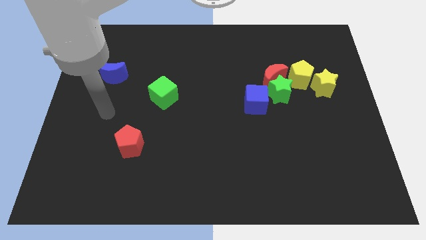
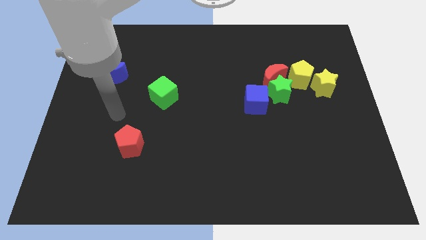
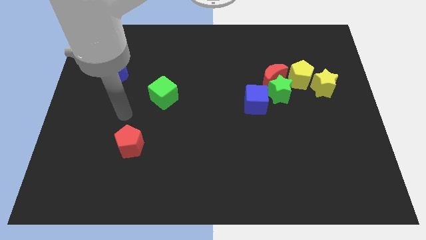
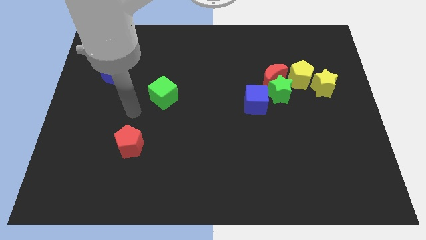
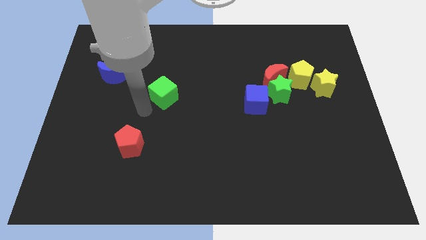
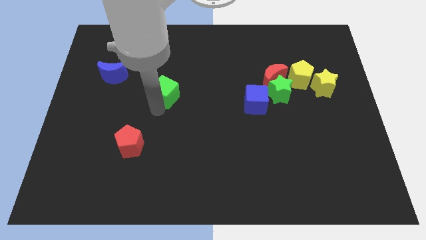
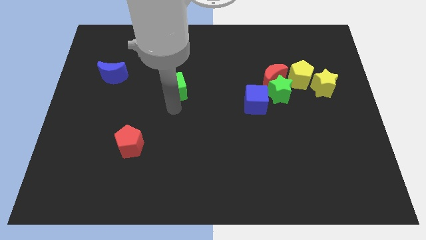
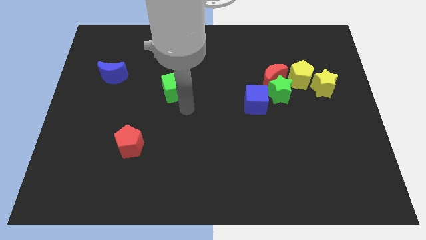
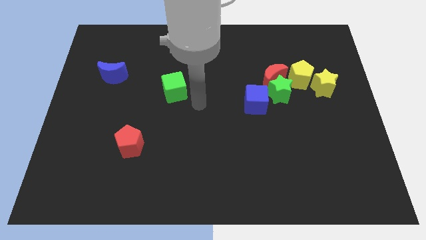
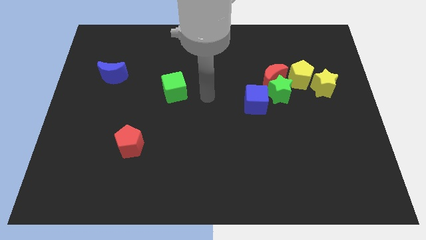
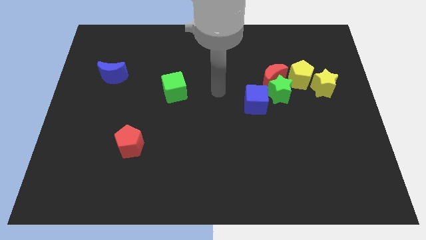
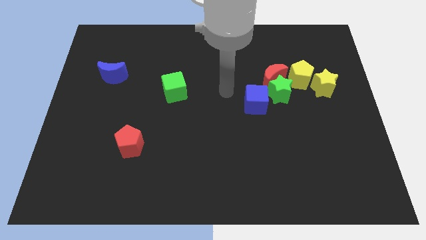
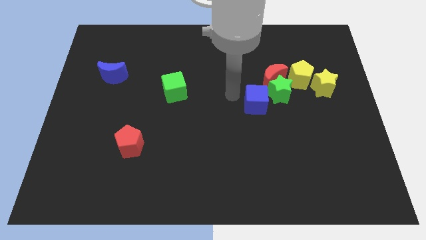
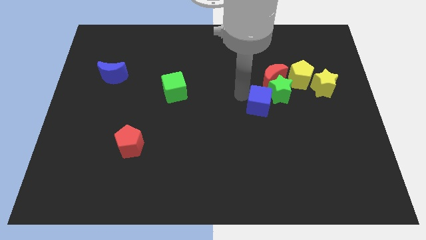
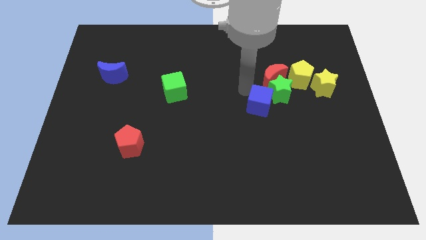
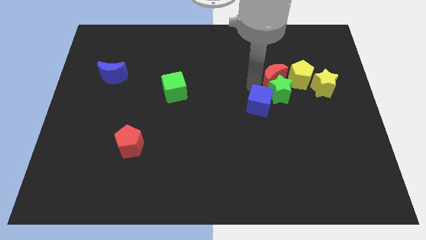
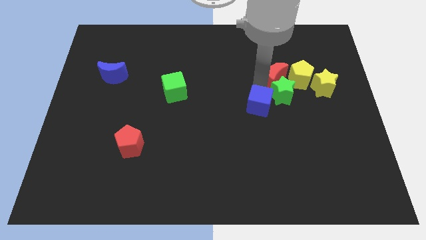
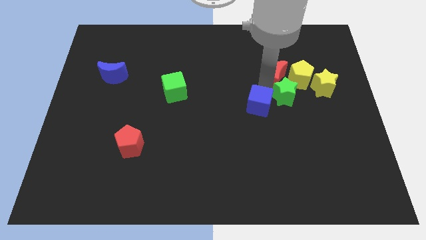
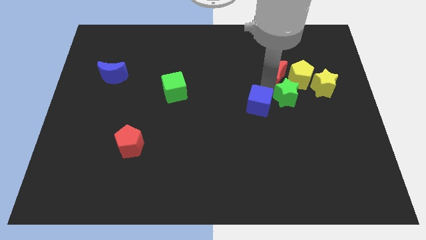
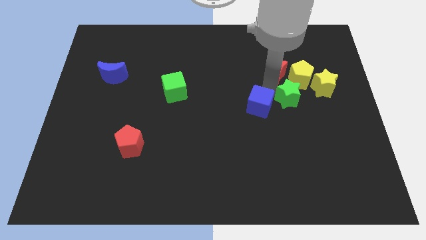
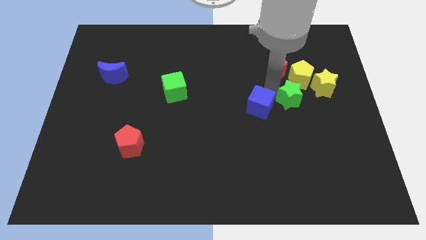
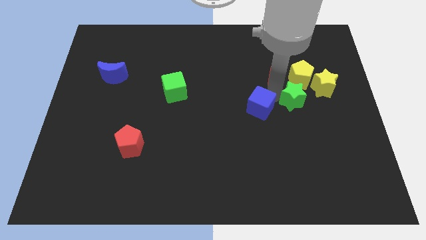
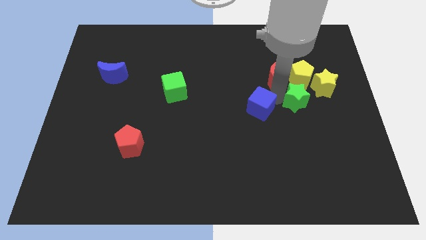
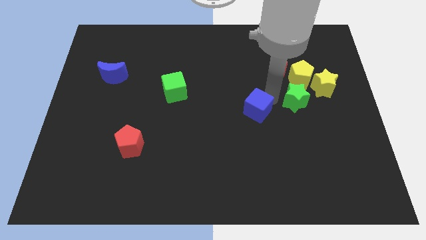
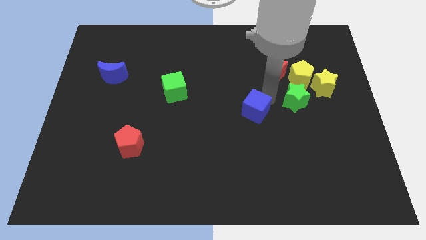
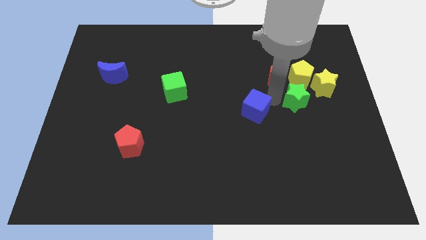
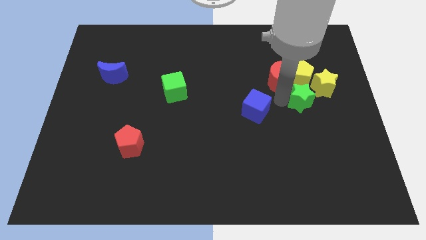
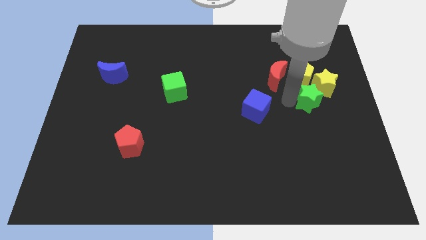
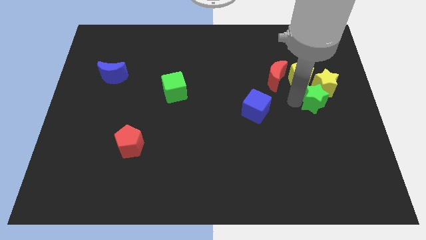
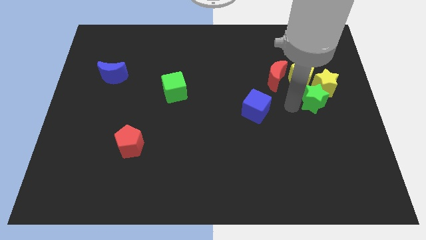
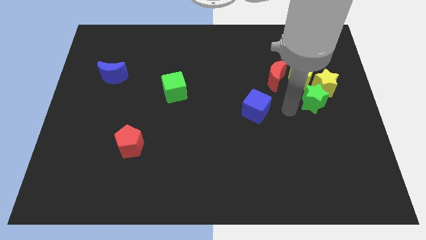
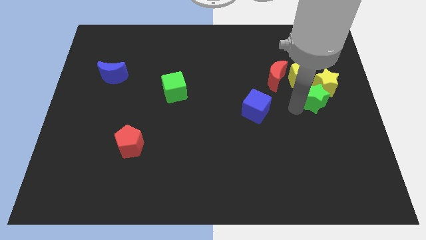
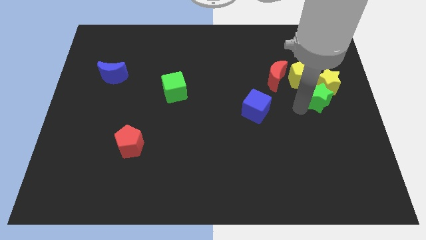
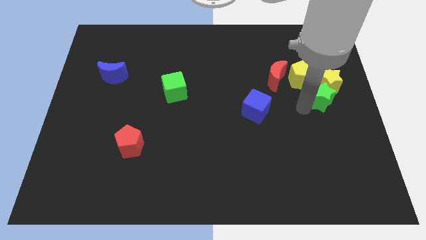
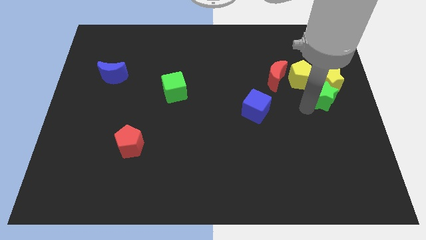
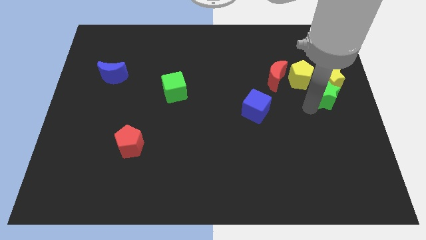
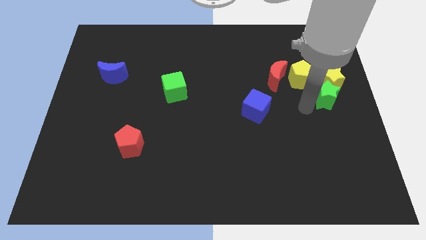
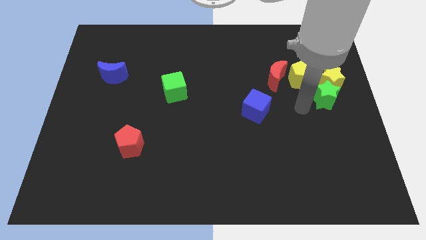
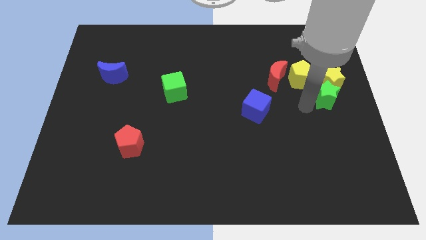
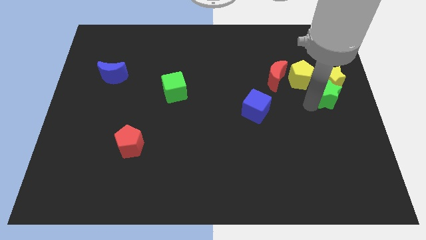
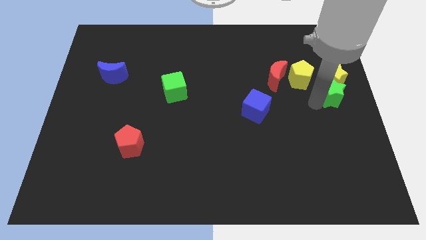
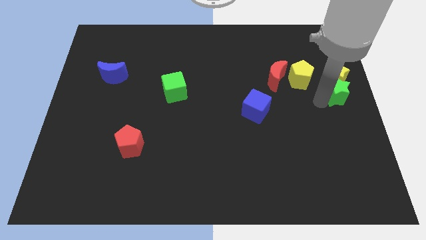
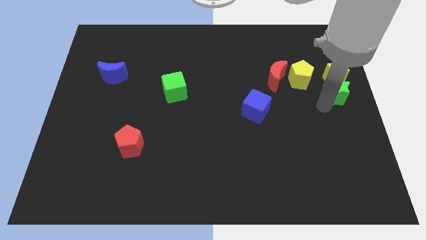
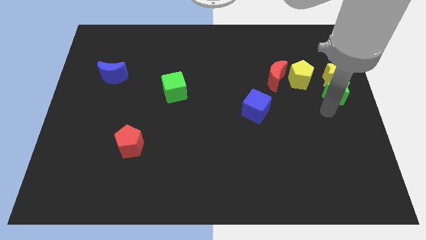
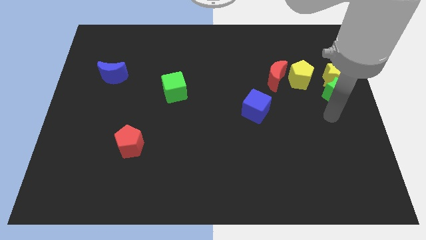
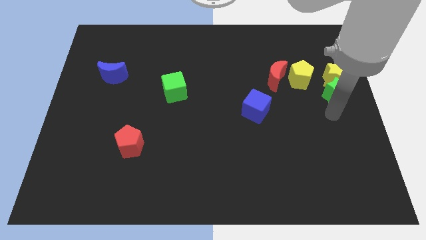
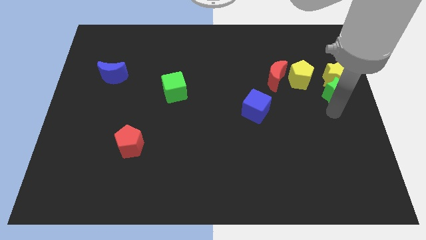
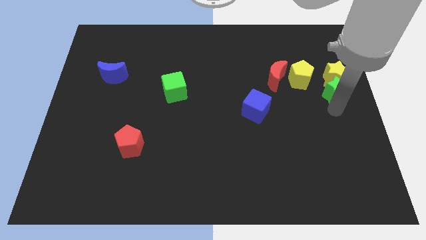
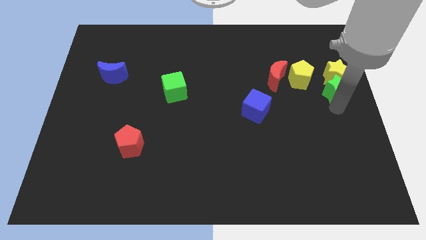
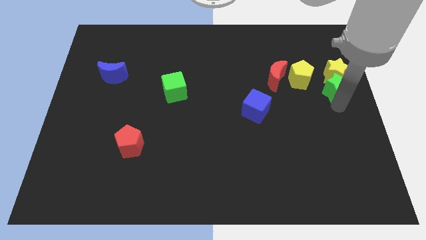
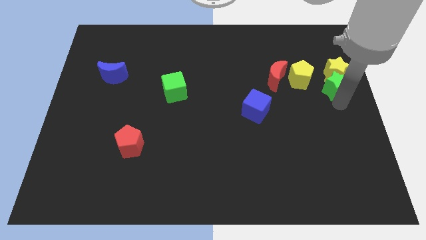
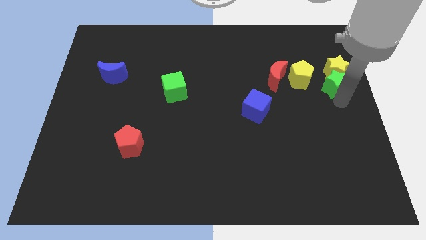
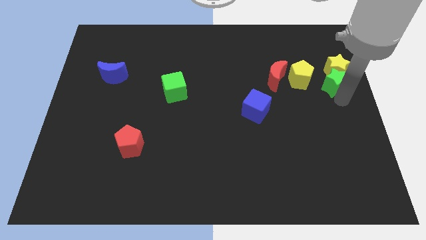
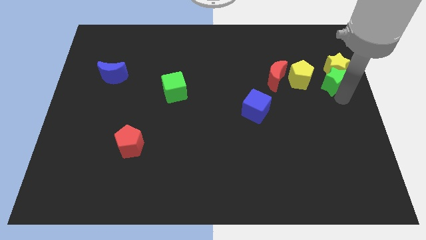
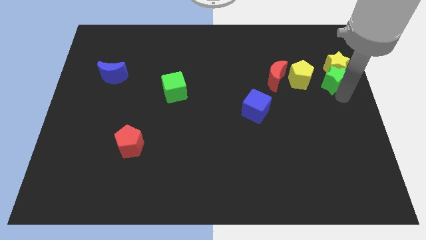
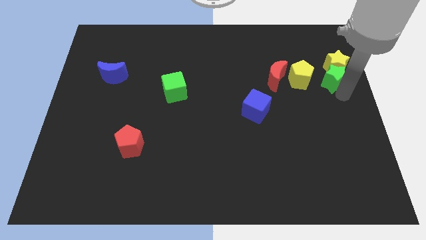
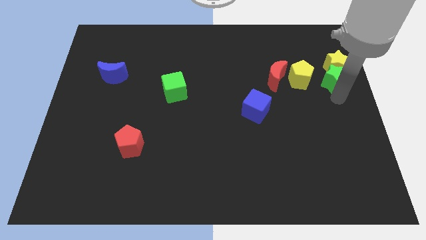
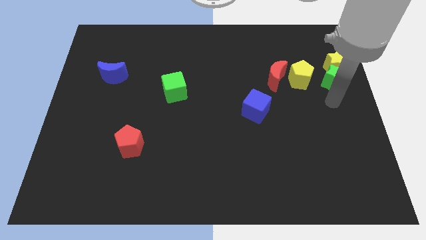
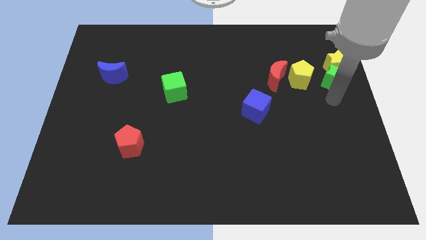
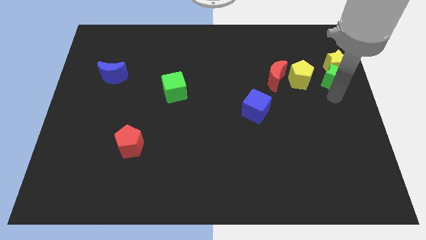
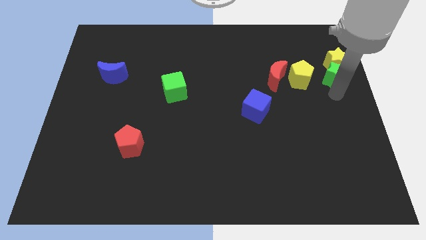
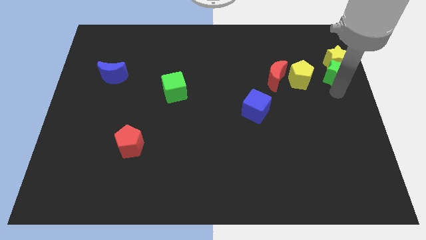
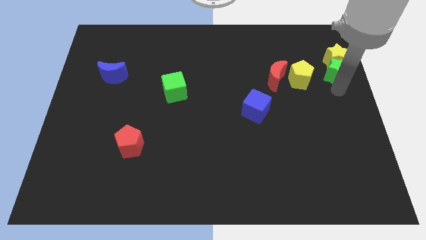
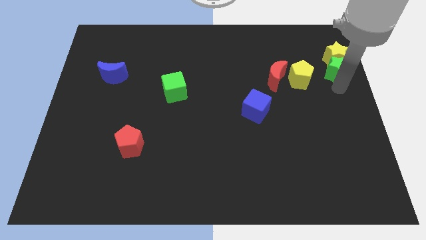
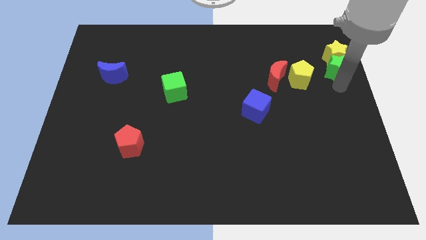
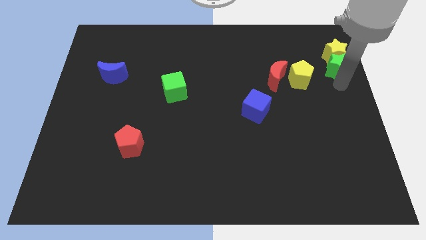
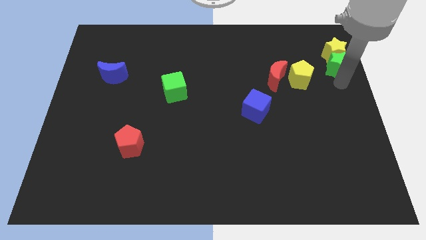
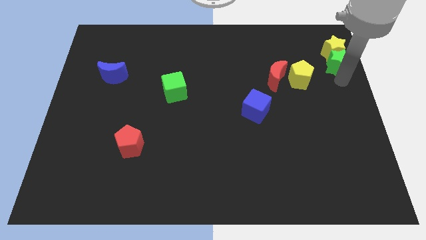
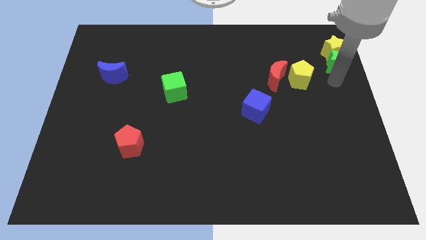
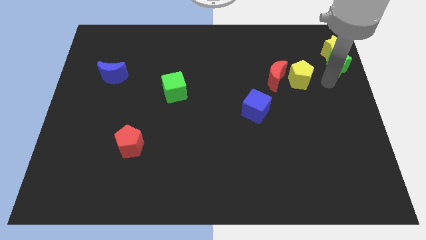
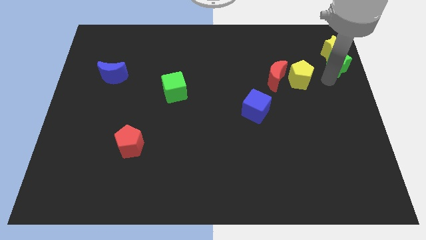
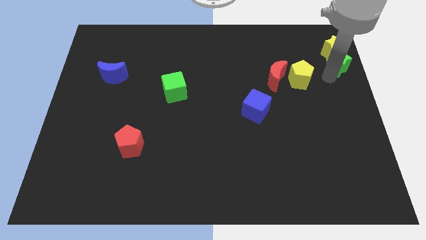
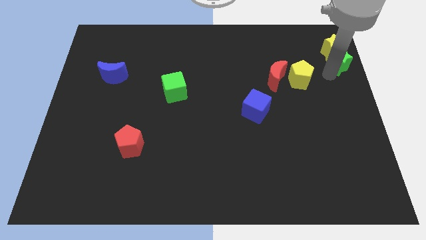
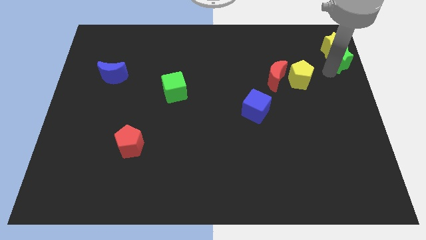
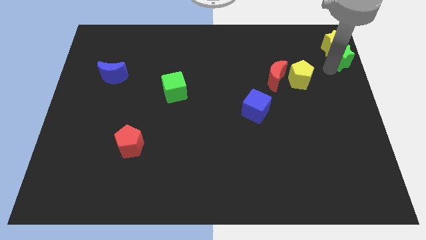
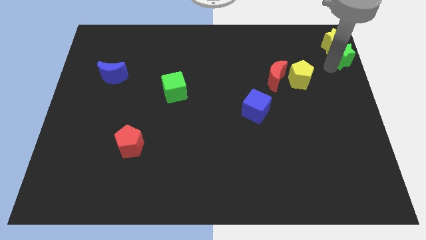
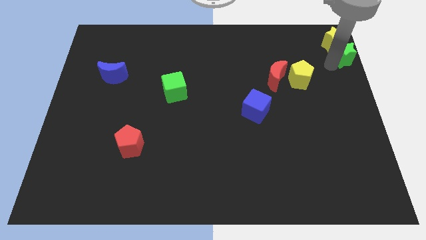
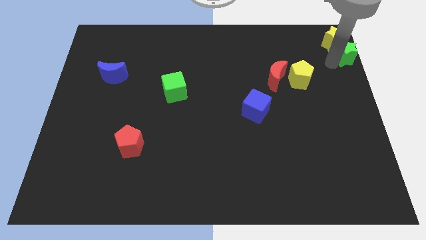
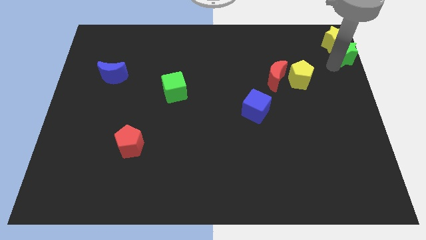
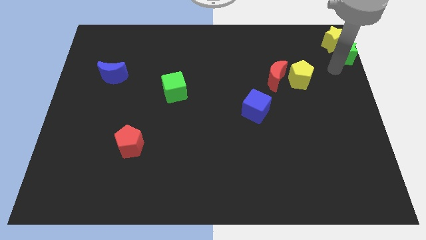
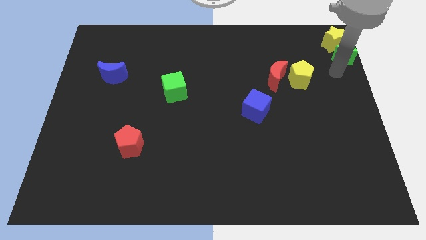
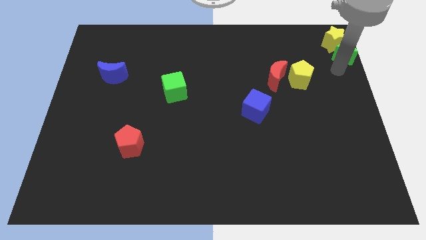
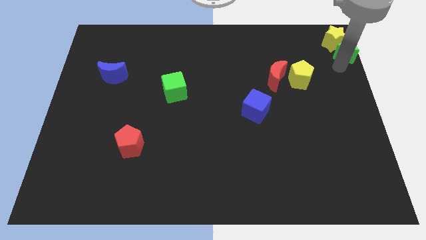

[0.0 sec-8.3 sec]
put the green star to the top right corner
